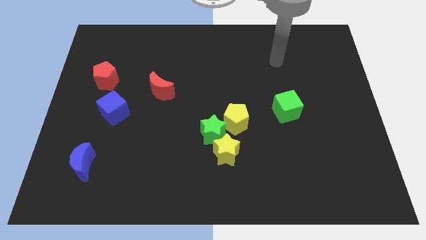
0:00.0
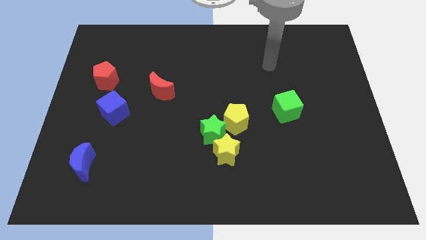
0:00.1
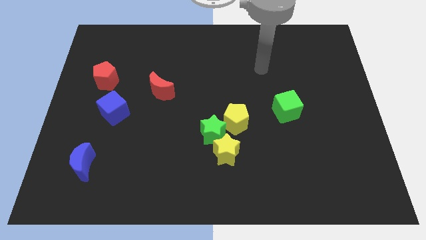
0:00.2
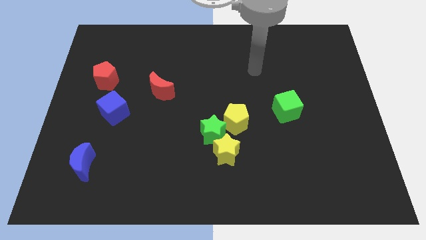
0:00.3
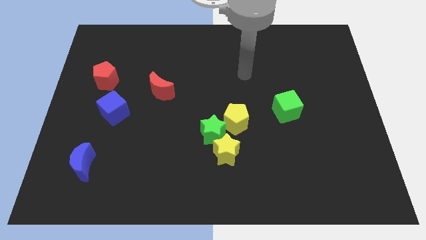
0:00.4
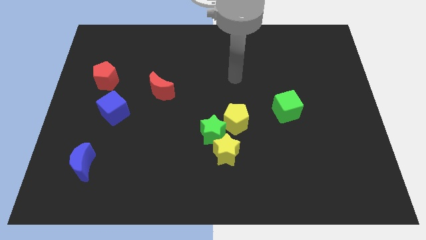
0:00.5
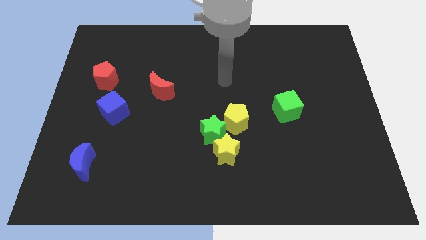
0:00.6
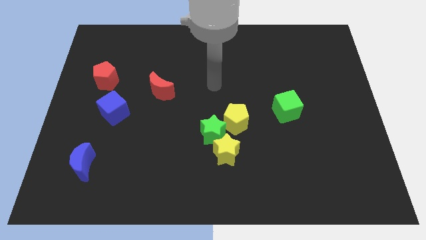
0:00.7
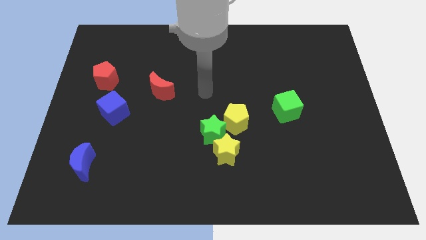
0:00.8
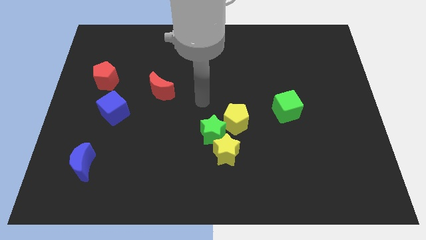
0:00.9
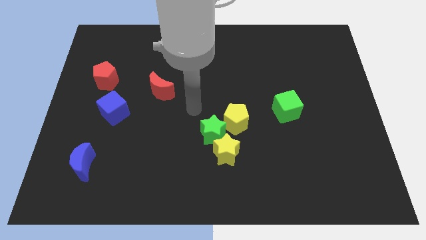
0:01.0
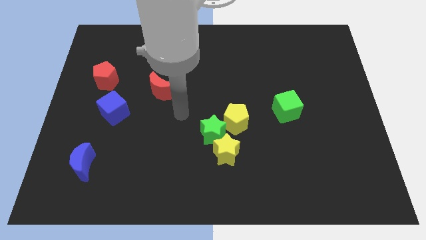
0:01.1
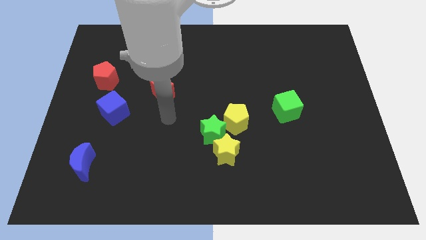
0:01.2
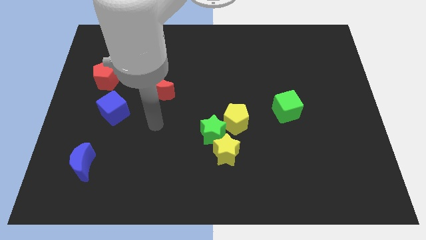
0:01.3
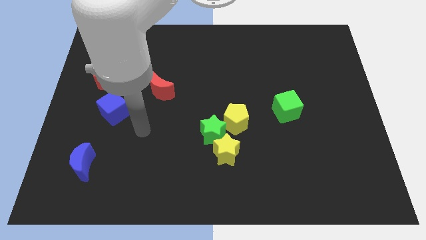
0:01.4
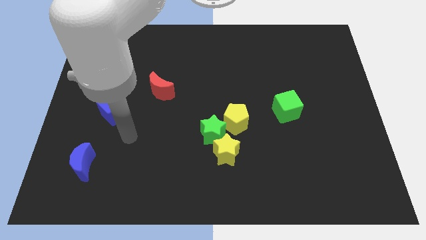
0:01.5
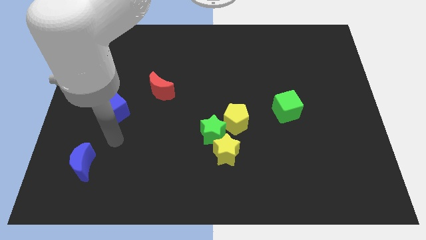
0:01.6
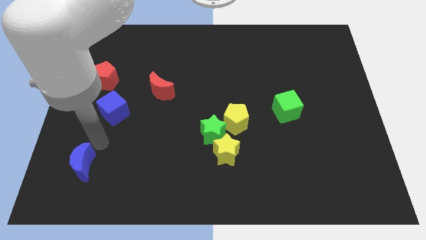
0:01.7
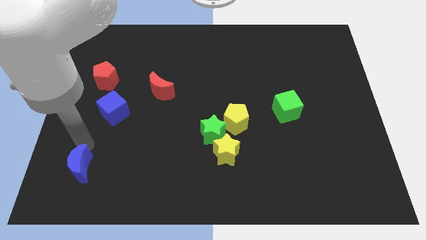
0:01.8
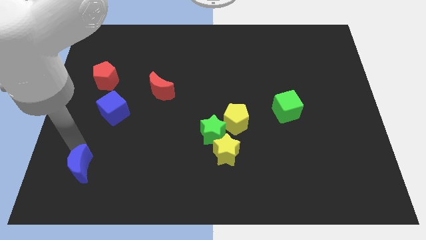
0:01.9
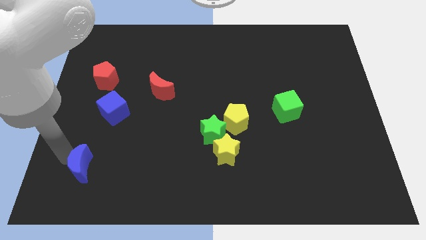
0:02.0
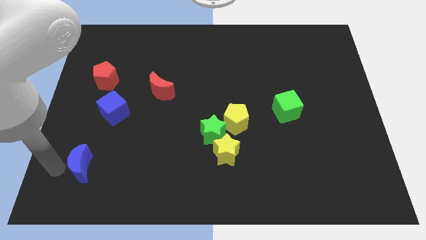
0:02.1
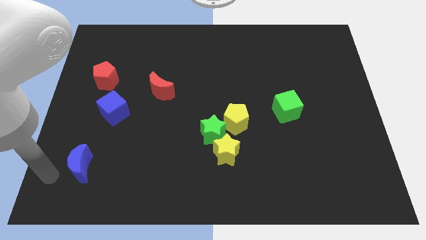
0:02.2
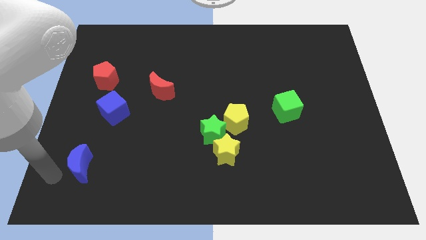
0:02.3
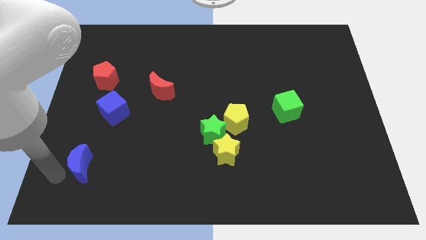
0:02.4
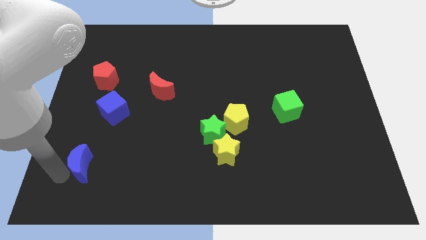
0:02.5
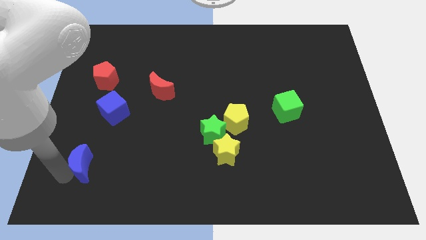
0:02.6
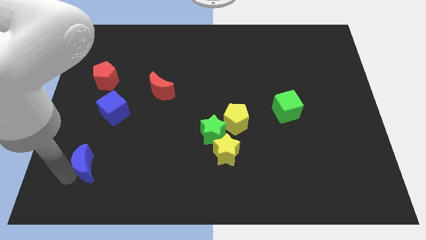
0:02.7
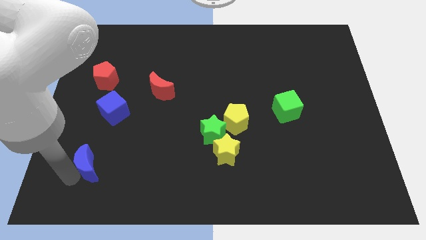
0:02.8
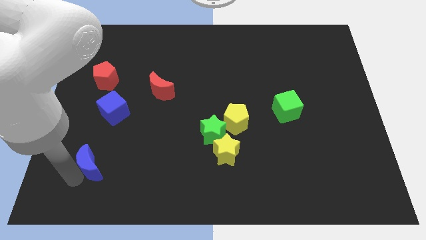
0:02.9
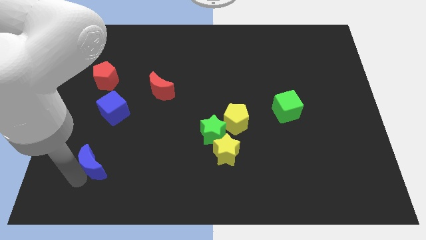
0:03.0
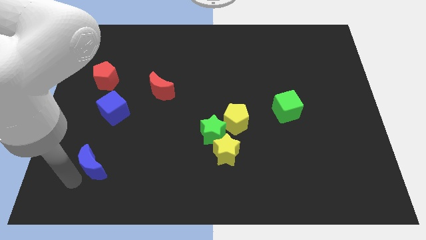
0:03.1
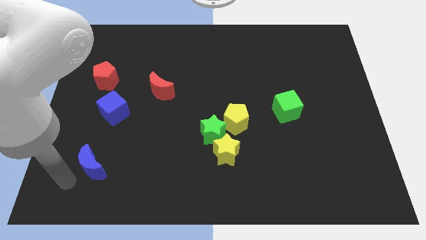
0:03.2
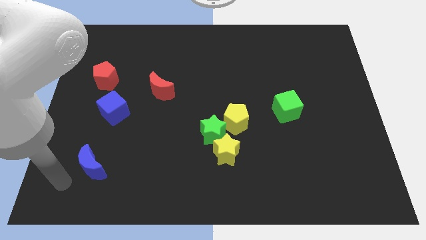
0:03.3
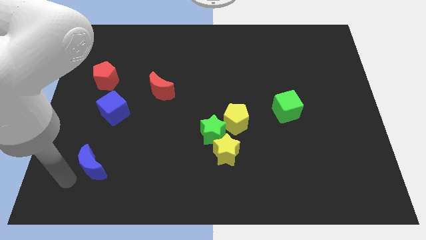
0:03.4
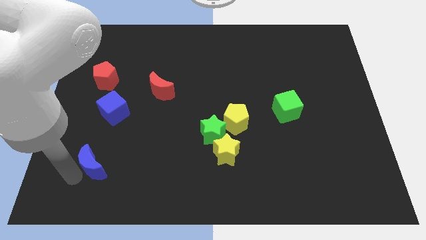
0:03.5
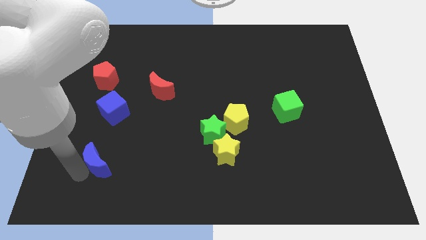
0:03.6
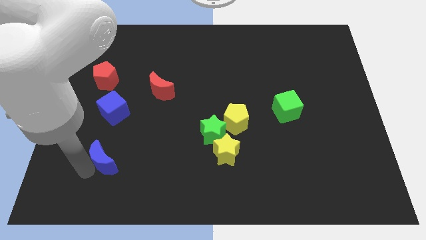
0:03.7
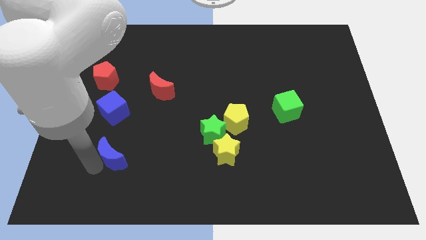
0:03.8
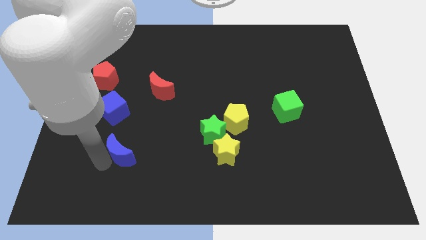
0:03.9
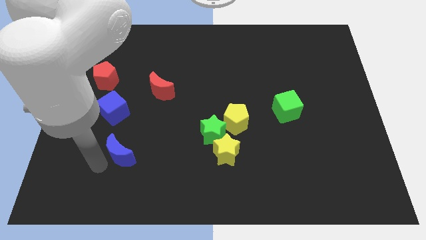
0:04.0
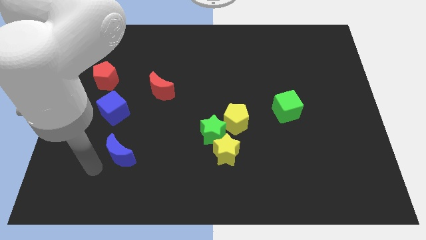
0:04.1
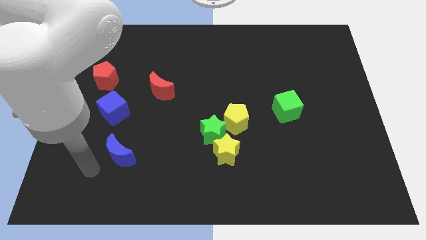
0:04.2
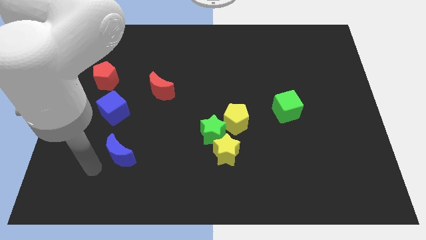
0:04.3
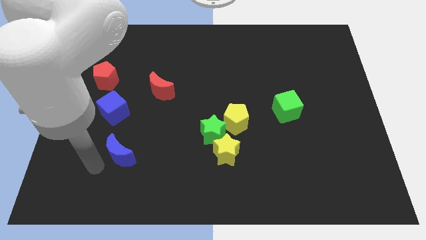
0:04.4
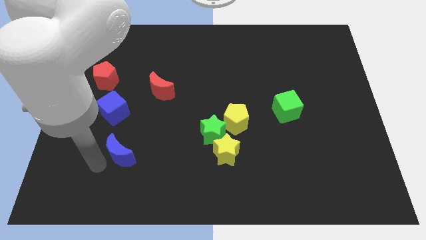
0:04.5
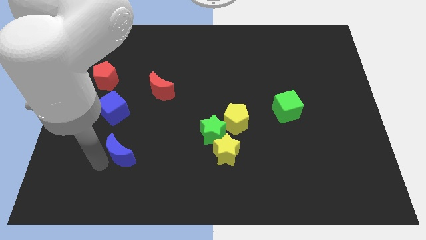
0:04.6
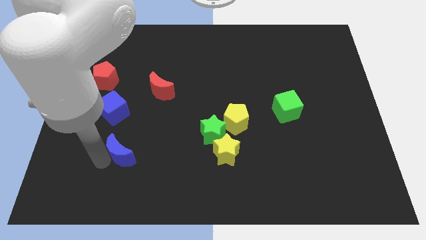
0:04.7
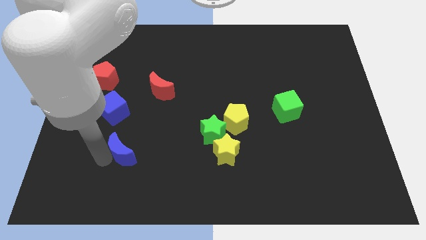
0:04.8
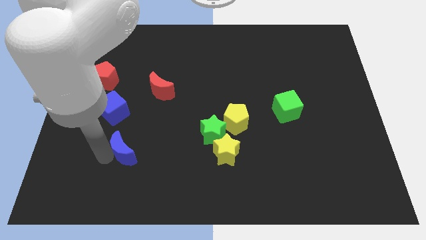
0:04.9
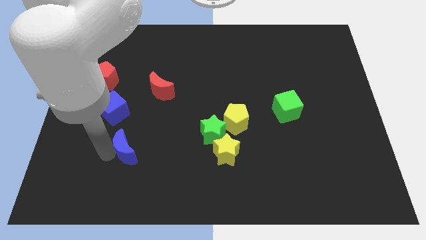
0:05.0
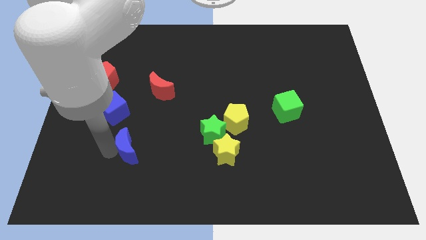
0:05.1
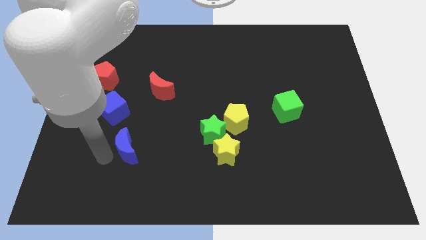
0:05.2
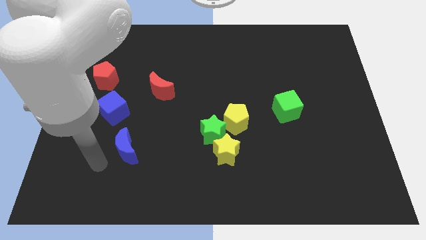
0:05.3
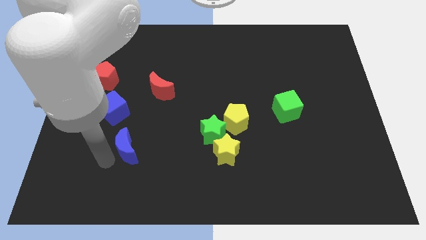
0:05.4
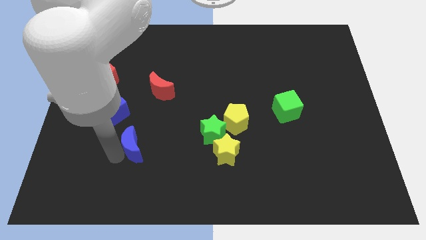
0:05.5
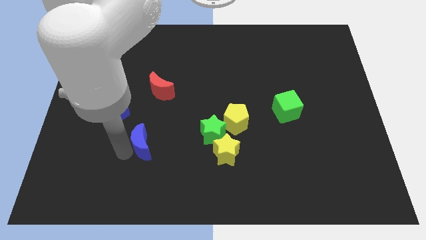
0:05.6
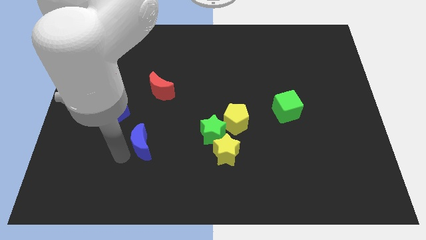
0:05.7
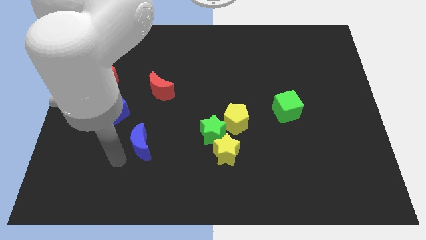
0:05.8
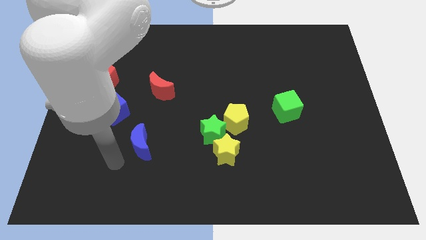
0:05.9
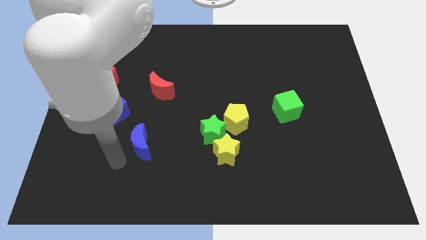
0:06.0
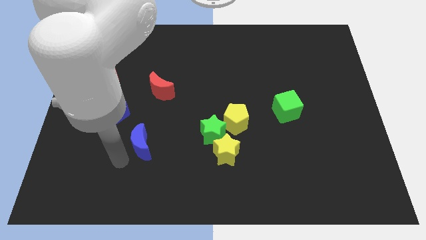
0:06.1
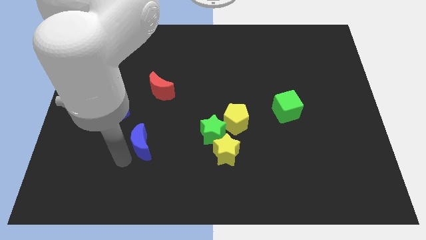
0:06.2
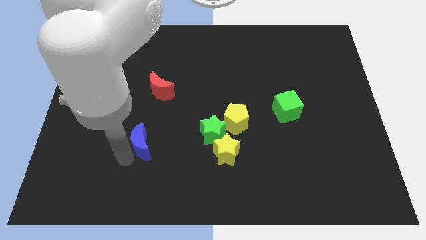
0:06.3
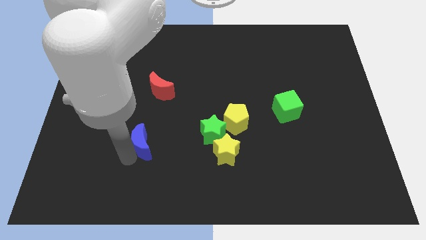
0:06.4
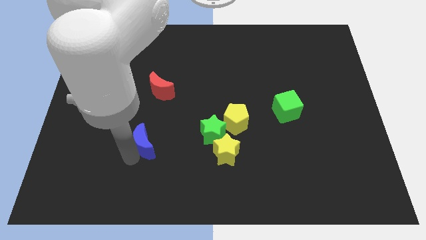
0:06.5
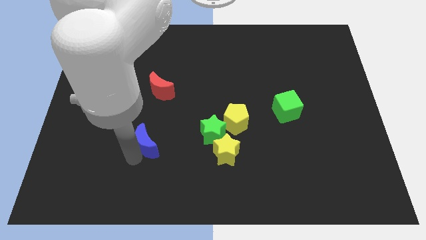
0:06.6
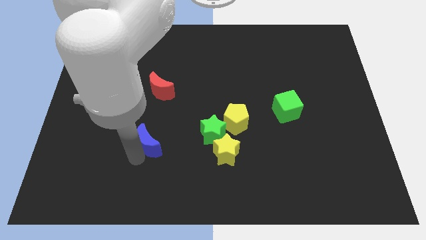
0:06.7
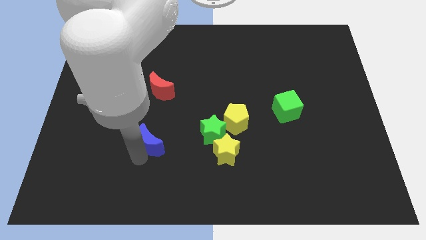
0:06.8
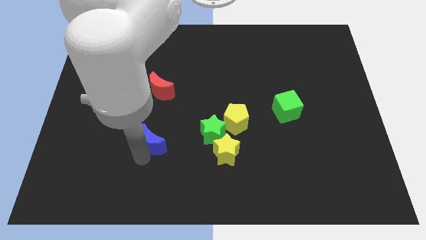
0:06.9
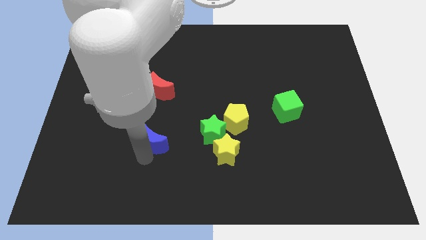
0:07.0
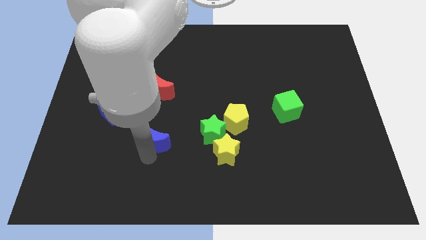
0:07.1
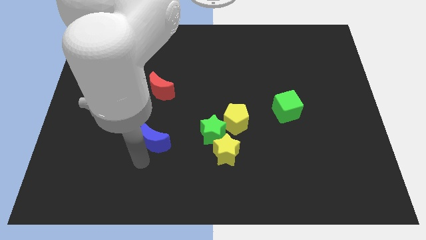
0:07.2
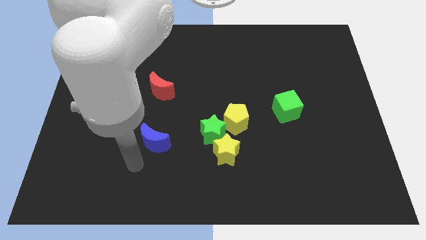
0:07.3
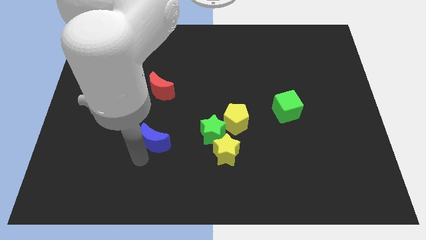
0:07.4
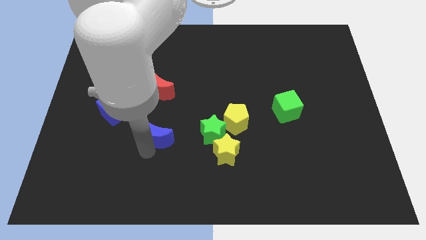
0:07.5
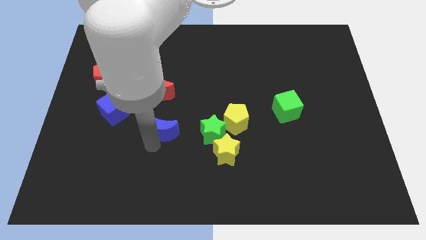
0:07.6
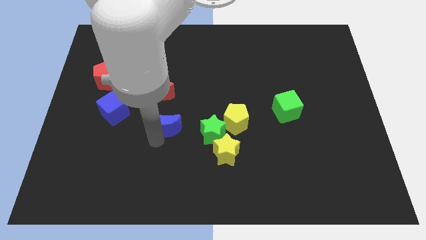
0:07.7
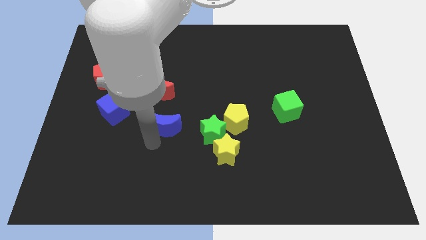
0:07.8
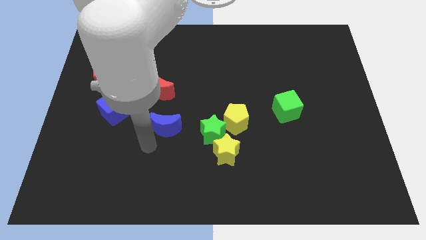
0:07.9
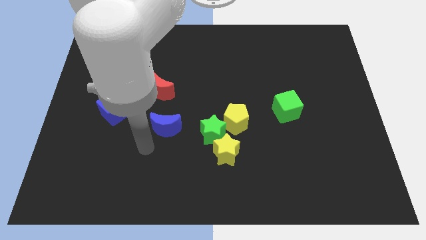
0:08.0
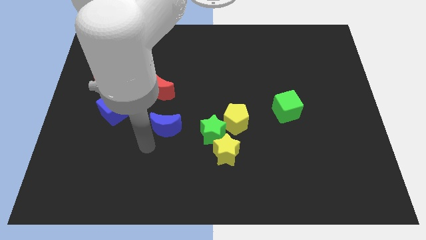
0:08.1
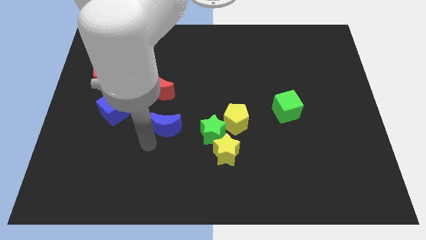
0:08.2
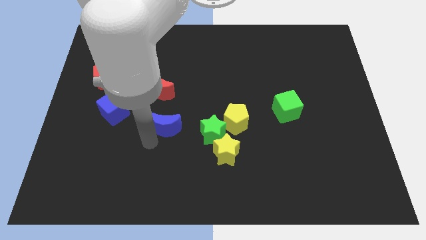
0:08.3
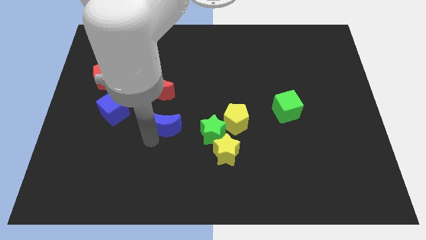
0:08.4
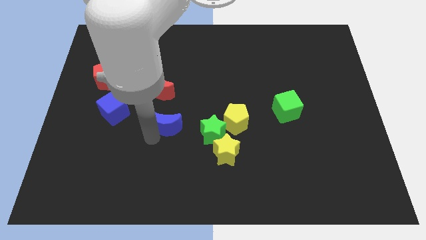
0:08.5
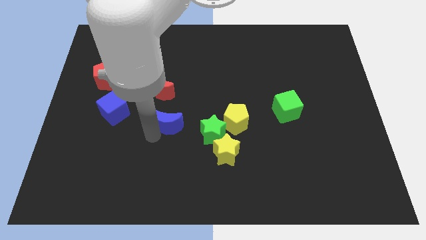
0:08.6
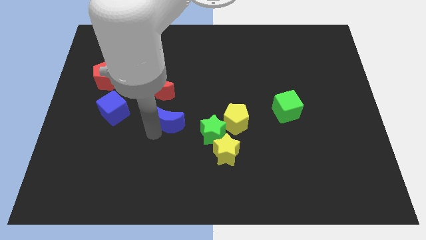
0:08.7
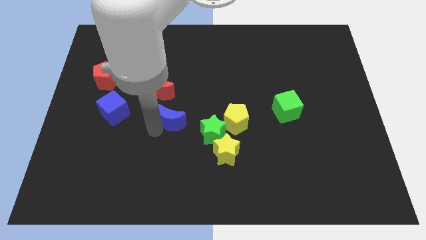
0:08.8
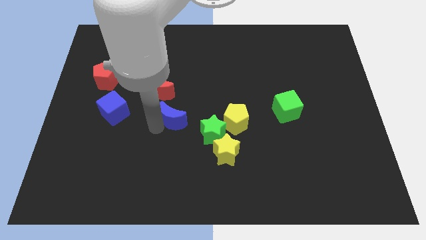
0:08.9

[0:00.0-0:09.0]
move the blue moon upwards and right diagonally
